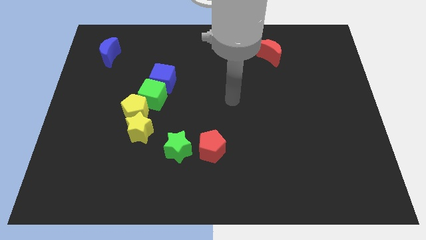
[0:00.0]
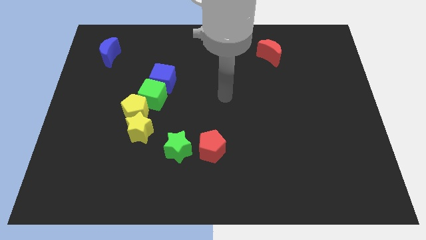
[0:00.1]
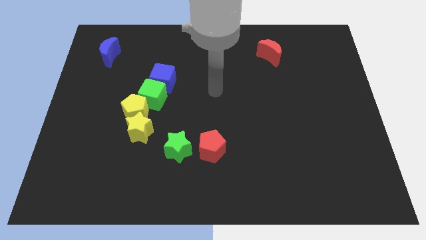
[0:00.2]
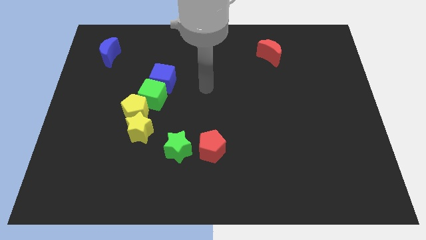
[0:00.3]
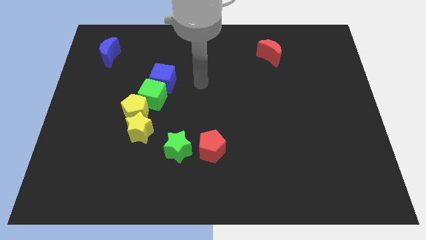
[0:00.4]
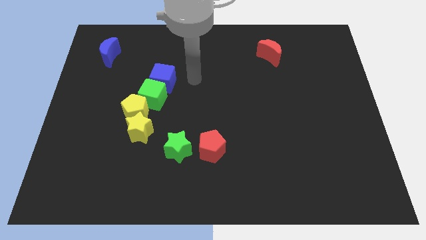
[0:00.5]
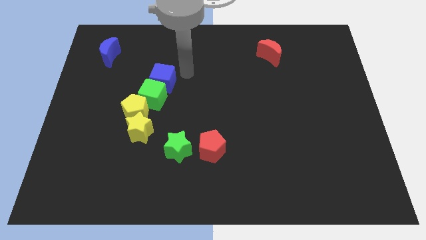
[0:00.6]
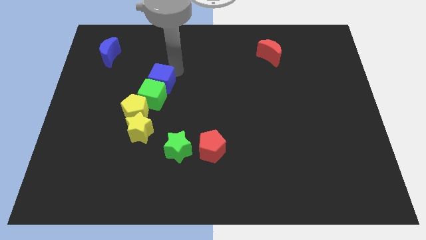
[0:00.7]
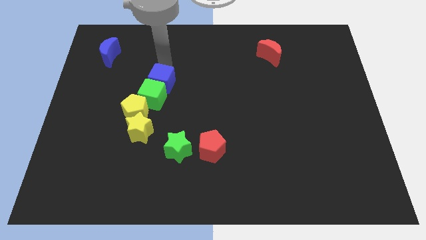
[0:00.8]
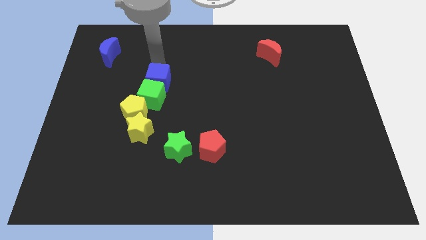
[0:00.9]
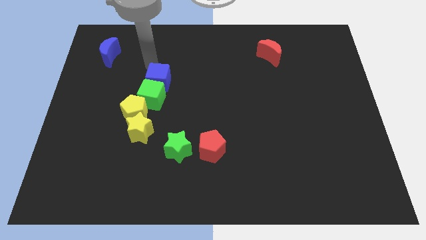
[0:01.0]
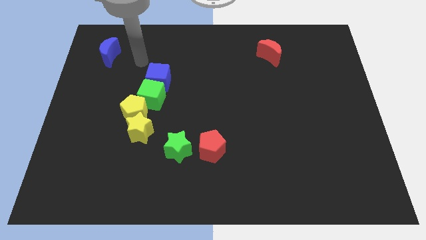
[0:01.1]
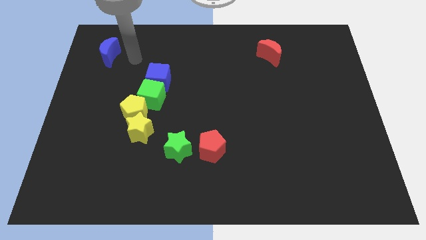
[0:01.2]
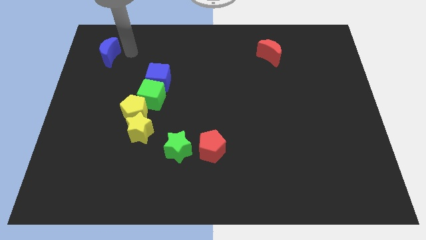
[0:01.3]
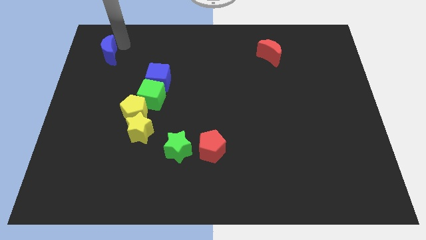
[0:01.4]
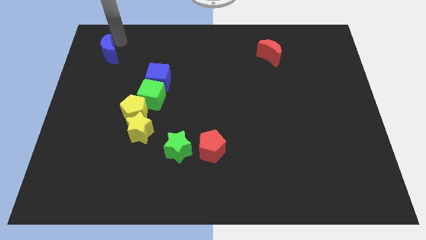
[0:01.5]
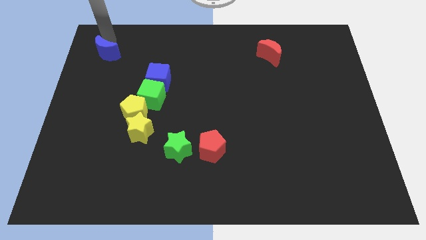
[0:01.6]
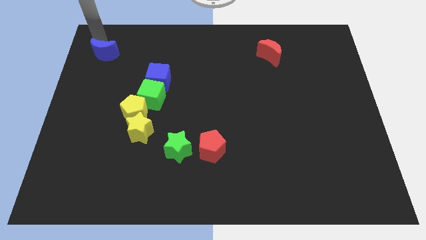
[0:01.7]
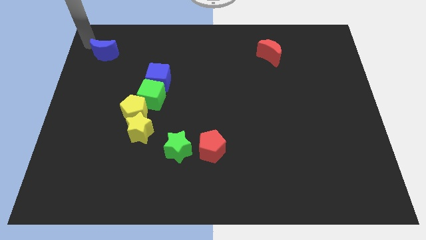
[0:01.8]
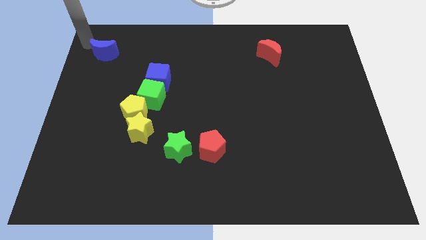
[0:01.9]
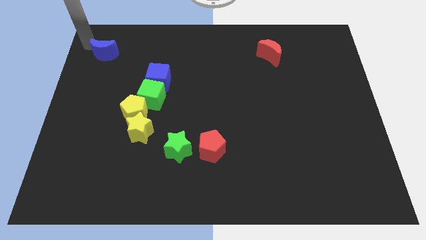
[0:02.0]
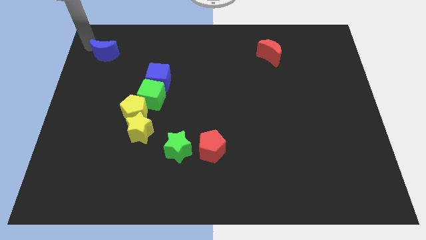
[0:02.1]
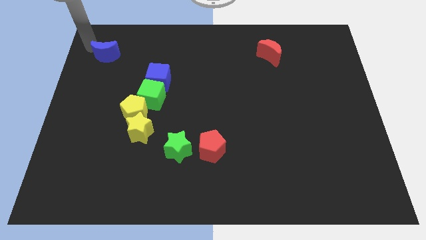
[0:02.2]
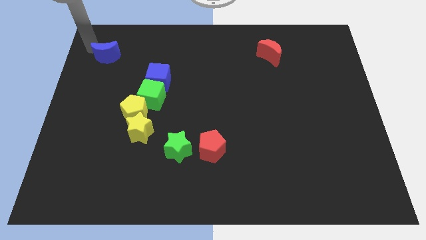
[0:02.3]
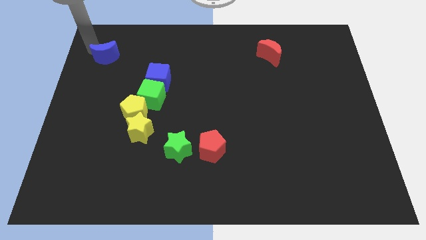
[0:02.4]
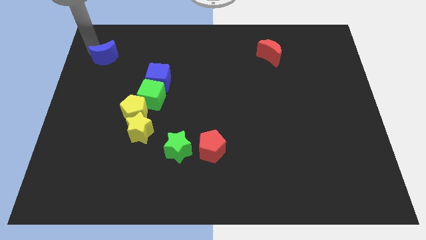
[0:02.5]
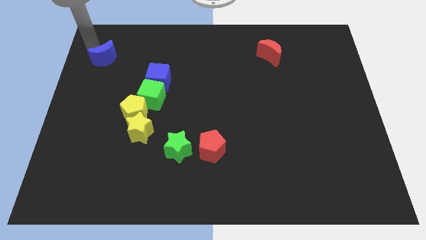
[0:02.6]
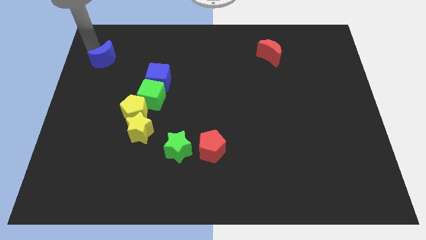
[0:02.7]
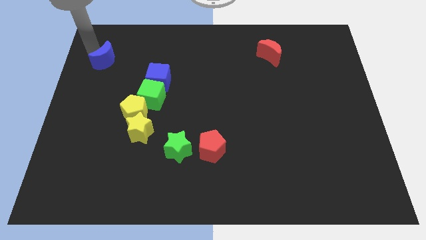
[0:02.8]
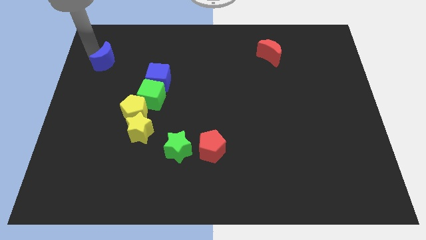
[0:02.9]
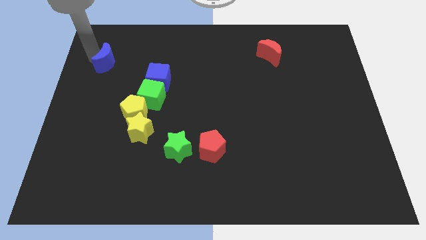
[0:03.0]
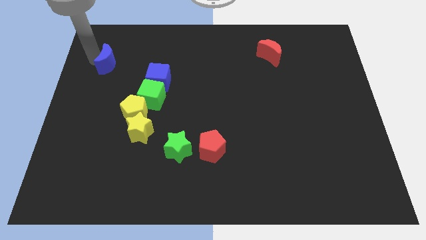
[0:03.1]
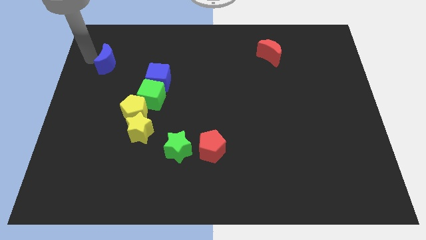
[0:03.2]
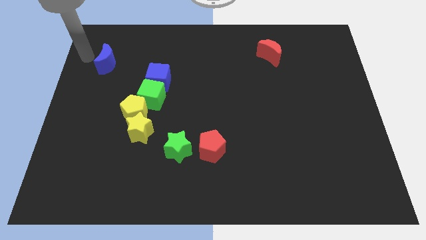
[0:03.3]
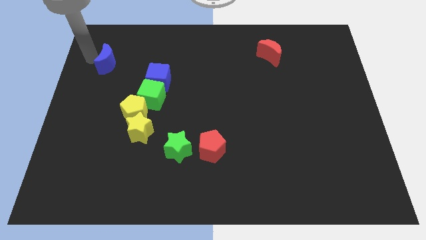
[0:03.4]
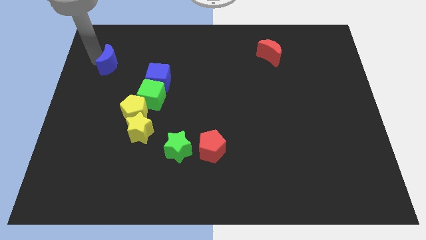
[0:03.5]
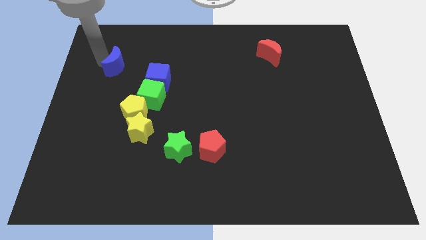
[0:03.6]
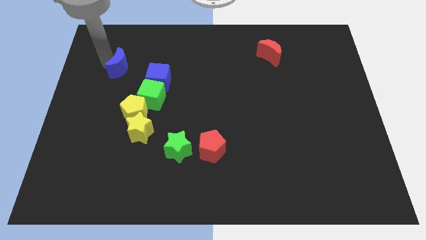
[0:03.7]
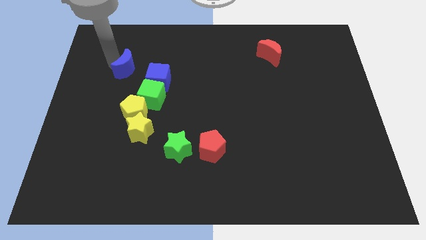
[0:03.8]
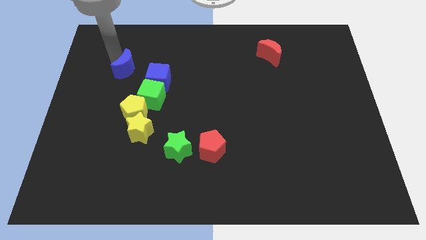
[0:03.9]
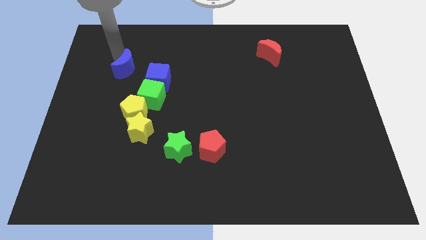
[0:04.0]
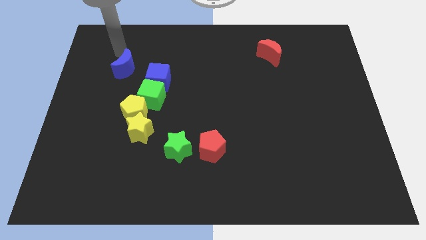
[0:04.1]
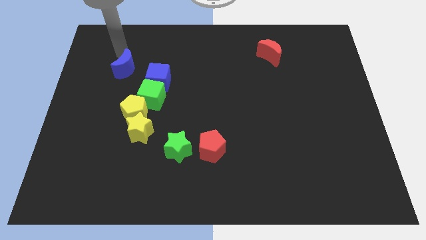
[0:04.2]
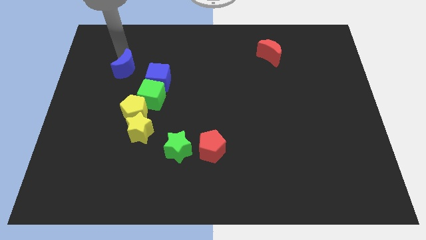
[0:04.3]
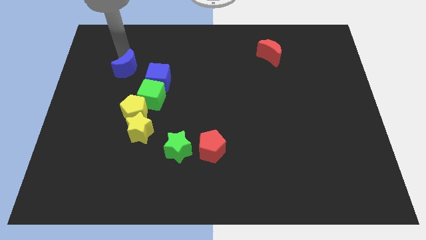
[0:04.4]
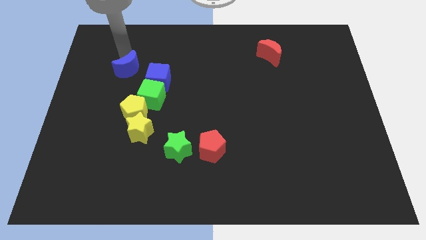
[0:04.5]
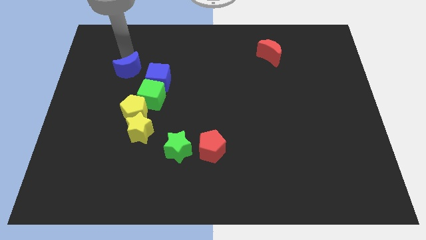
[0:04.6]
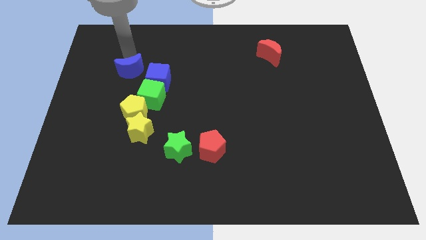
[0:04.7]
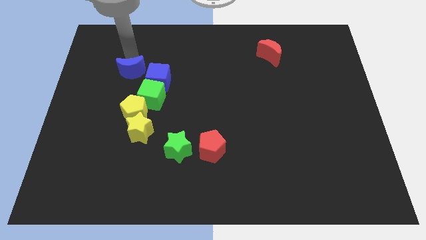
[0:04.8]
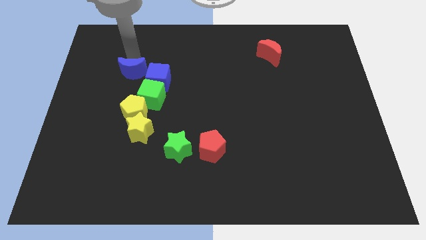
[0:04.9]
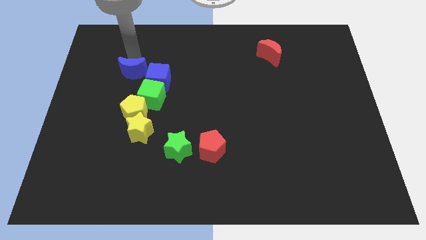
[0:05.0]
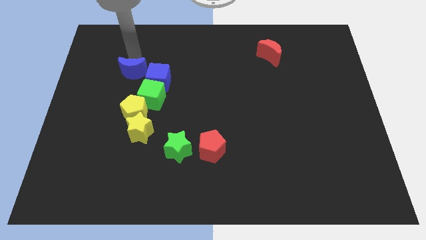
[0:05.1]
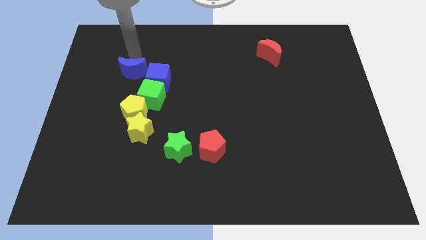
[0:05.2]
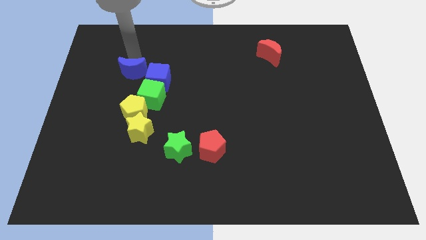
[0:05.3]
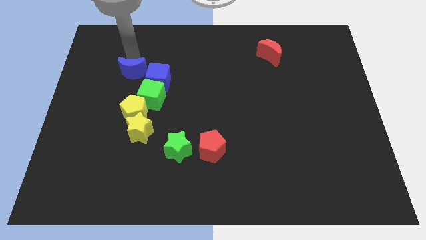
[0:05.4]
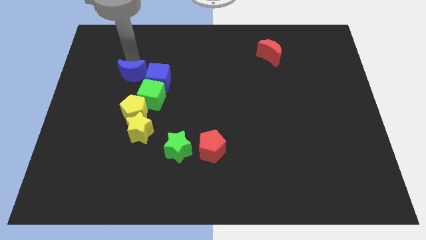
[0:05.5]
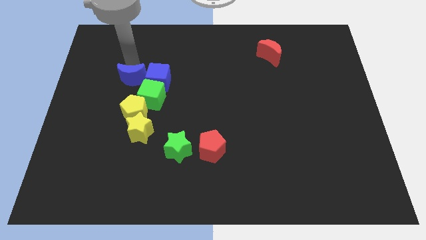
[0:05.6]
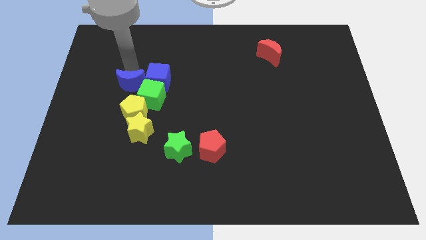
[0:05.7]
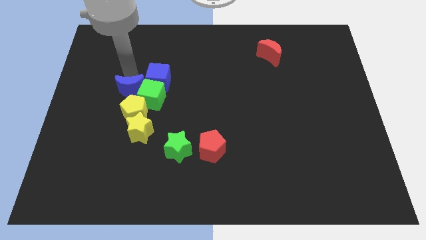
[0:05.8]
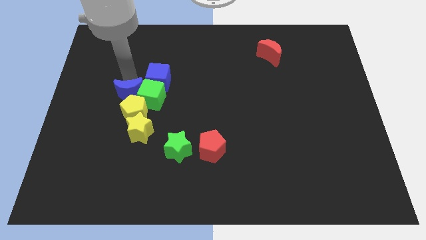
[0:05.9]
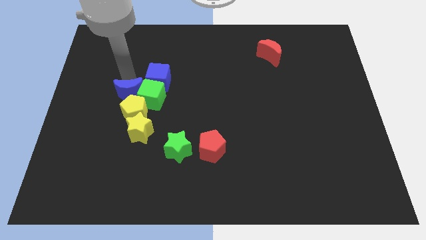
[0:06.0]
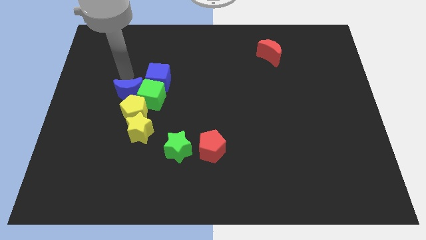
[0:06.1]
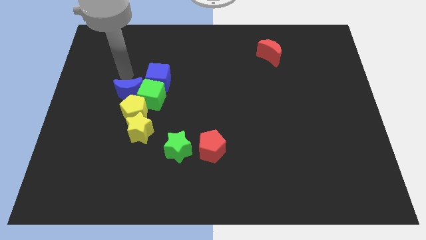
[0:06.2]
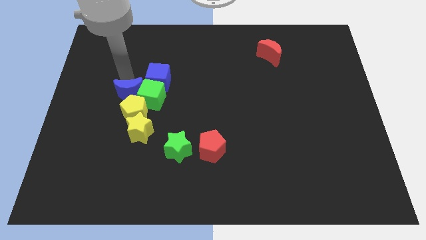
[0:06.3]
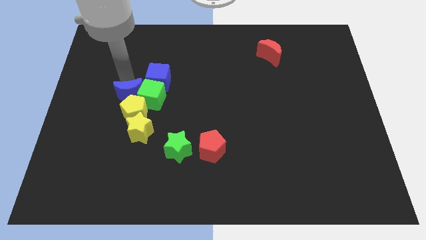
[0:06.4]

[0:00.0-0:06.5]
move the blue moon next to the yellow pentagon

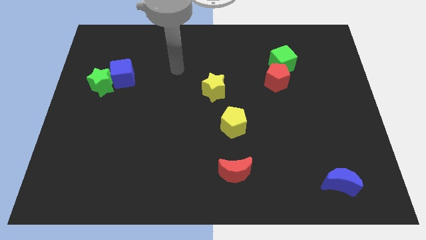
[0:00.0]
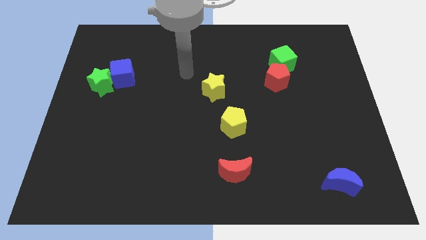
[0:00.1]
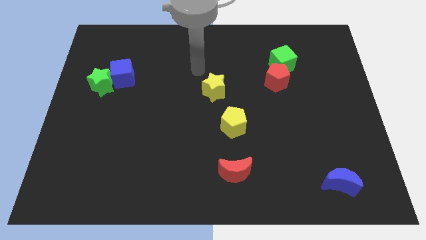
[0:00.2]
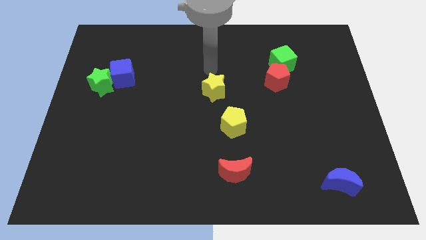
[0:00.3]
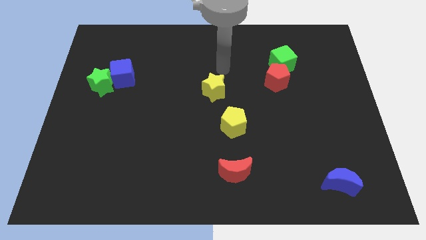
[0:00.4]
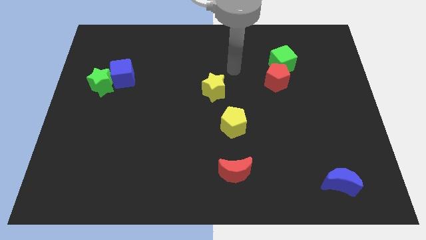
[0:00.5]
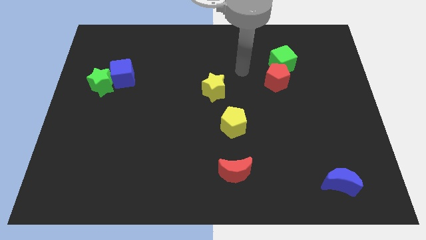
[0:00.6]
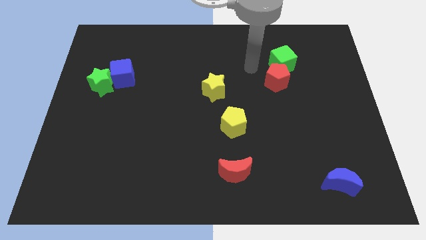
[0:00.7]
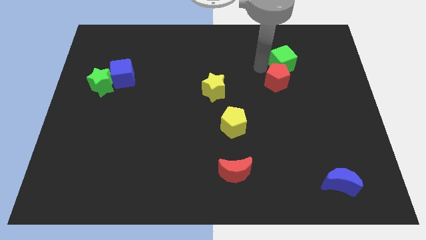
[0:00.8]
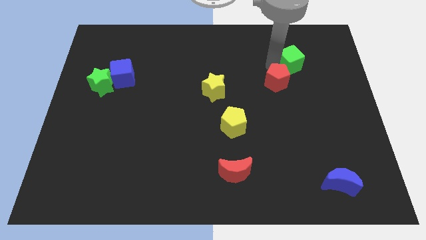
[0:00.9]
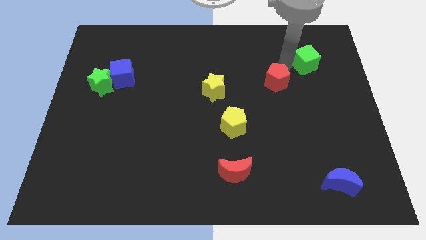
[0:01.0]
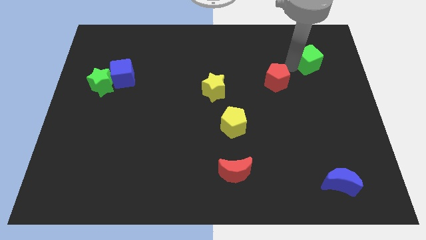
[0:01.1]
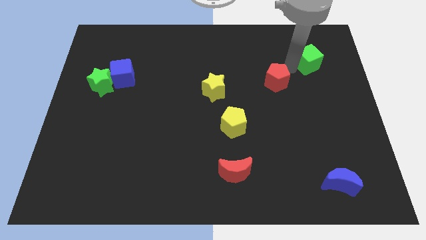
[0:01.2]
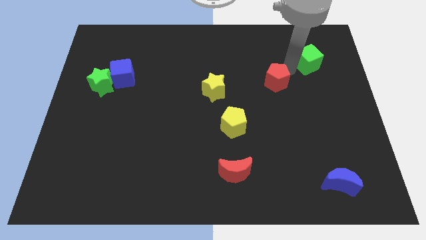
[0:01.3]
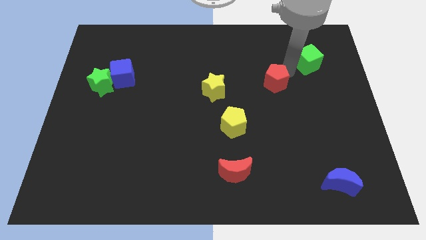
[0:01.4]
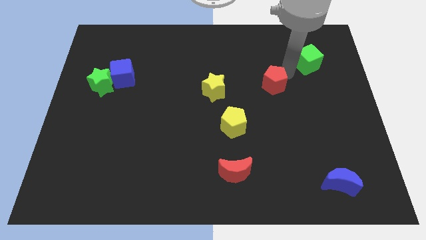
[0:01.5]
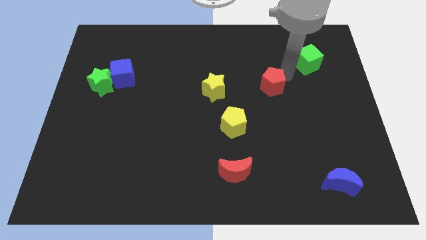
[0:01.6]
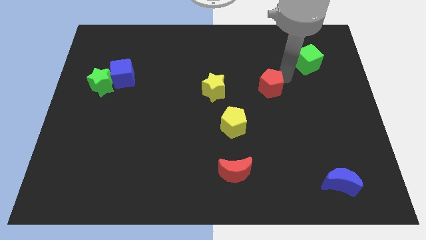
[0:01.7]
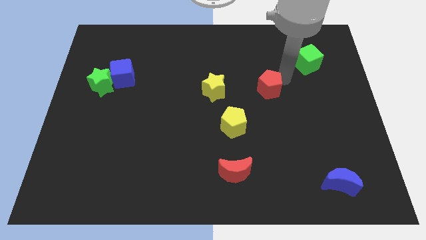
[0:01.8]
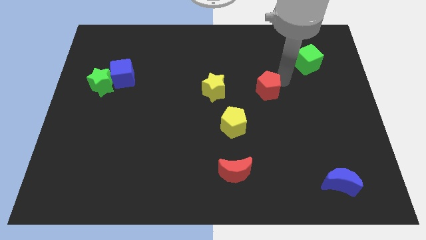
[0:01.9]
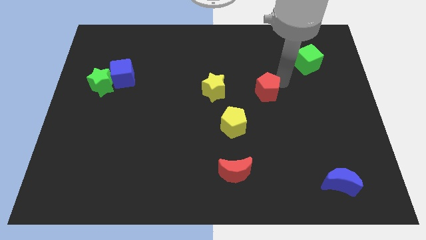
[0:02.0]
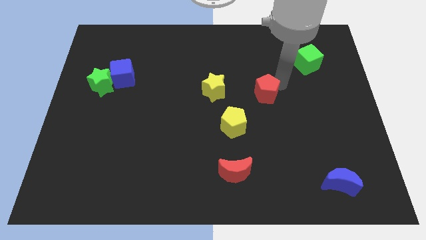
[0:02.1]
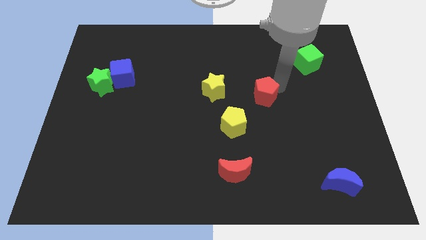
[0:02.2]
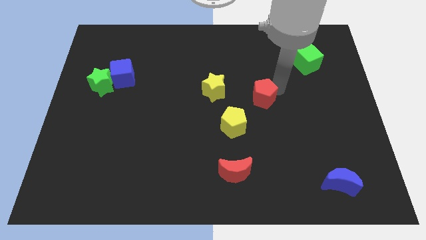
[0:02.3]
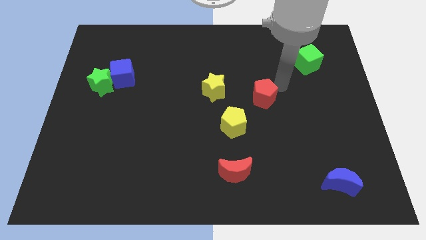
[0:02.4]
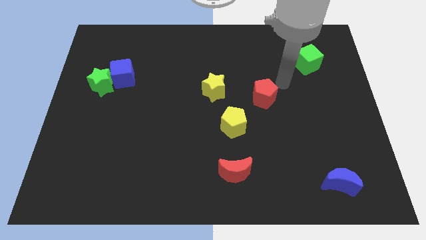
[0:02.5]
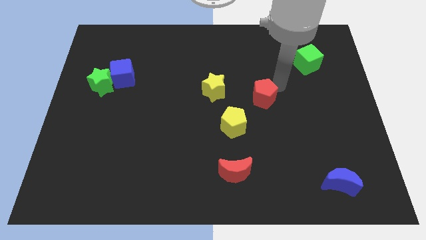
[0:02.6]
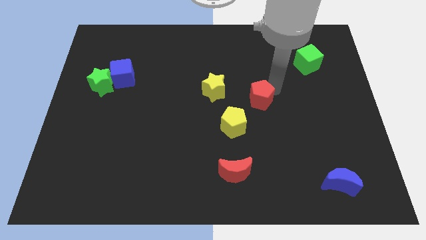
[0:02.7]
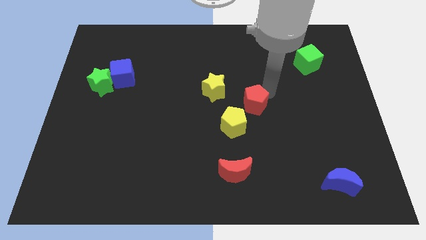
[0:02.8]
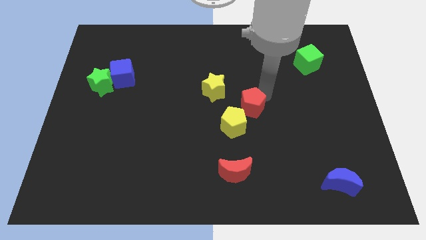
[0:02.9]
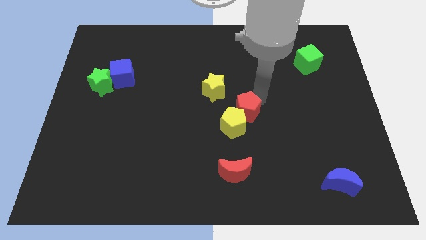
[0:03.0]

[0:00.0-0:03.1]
push the red pentagon next to the yellow pentagon
